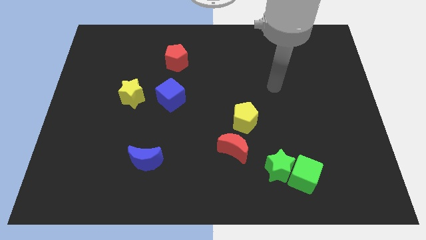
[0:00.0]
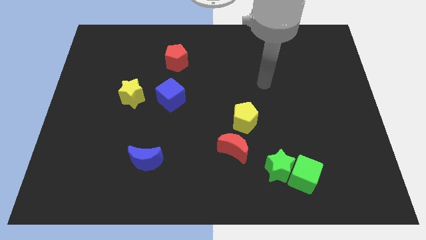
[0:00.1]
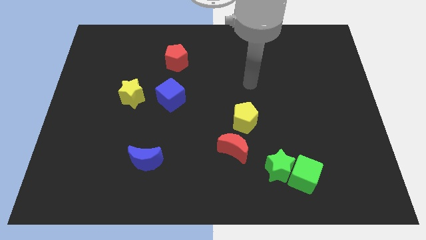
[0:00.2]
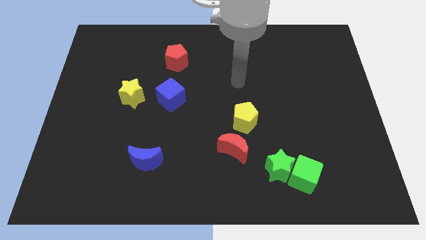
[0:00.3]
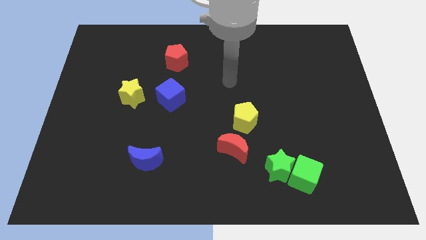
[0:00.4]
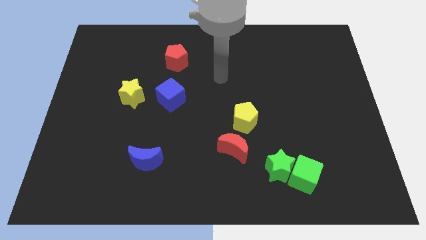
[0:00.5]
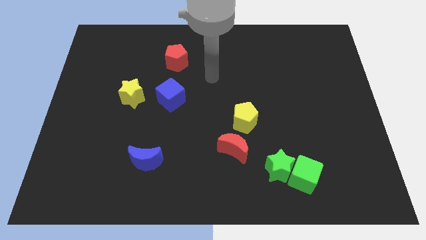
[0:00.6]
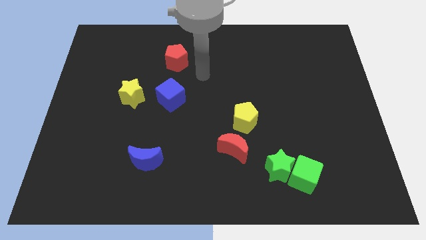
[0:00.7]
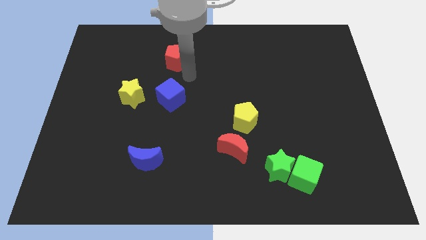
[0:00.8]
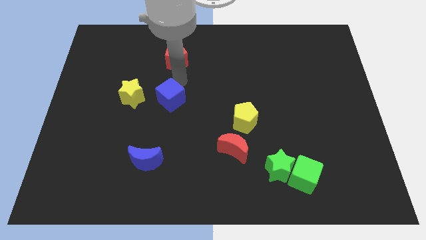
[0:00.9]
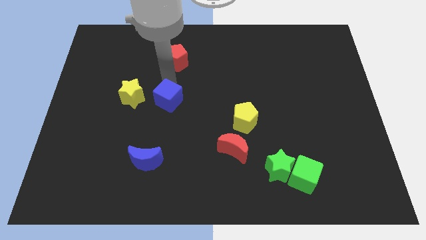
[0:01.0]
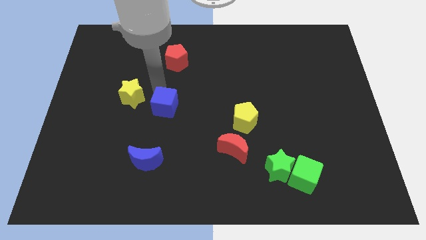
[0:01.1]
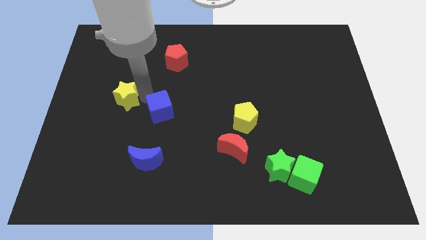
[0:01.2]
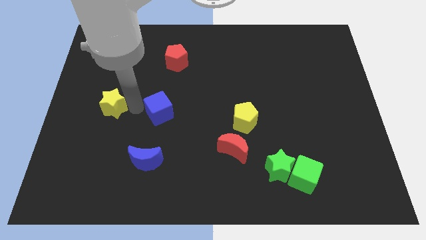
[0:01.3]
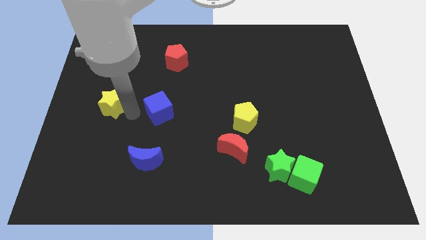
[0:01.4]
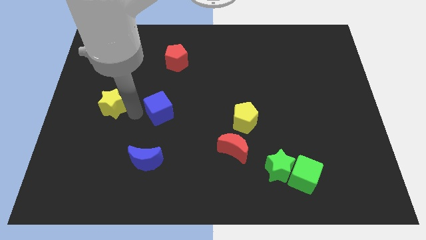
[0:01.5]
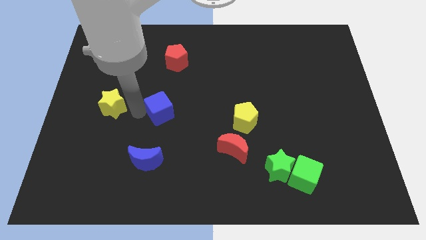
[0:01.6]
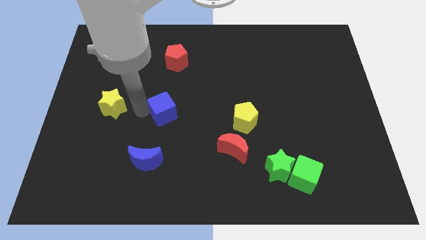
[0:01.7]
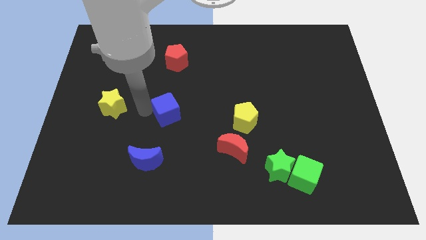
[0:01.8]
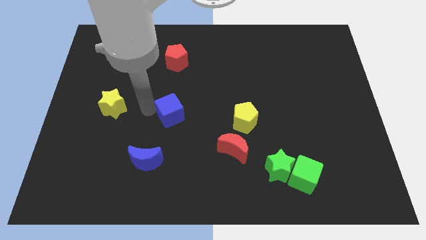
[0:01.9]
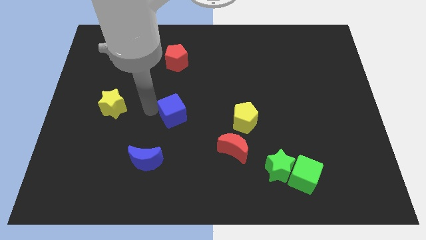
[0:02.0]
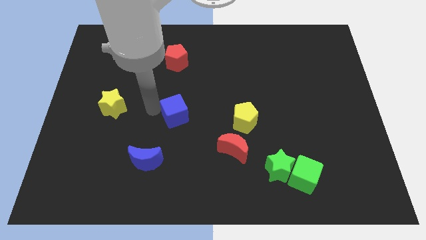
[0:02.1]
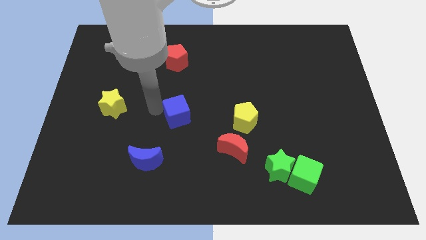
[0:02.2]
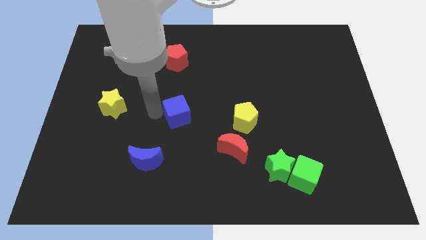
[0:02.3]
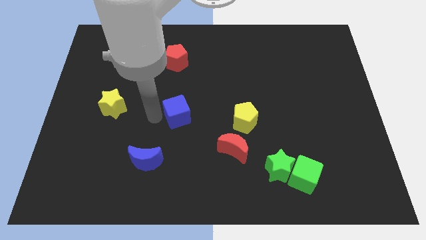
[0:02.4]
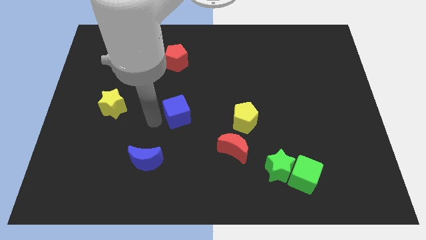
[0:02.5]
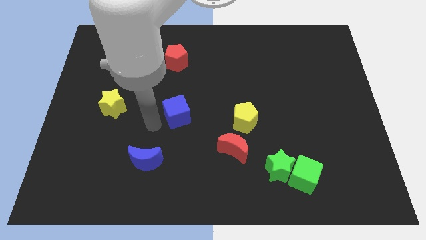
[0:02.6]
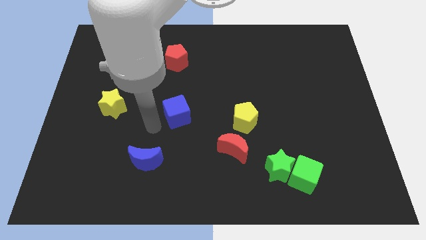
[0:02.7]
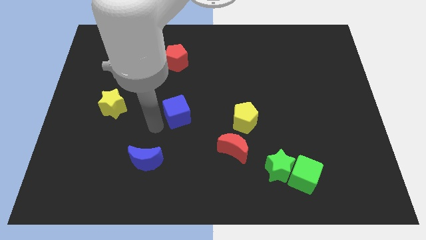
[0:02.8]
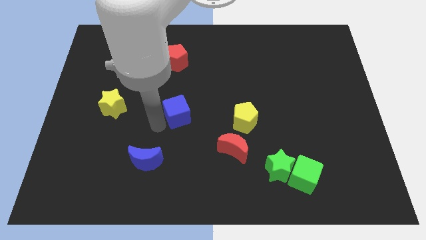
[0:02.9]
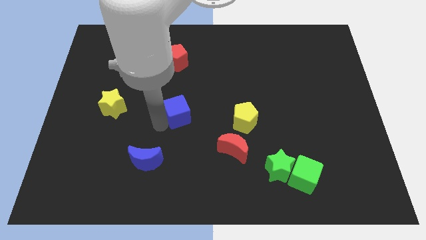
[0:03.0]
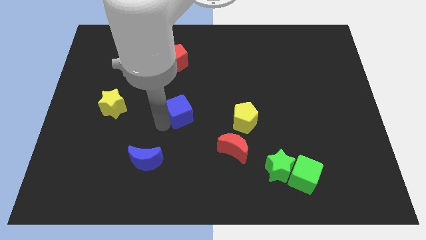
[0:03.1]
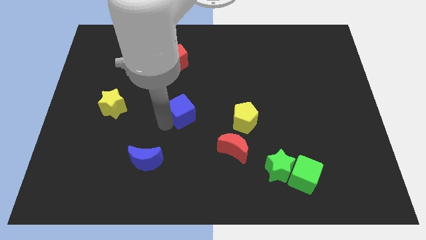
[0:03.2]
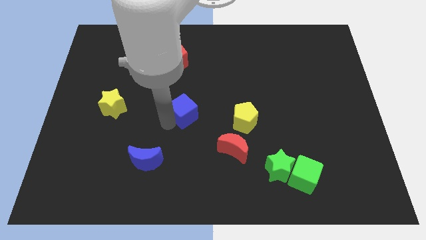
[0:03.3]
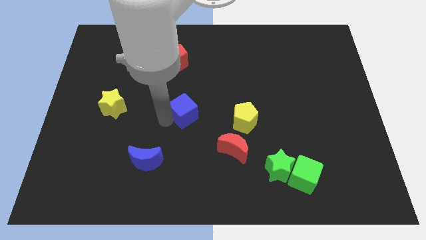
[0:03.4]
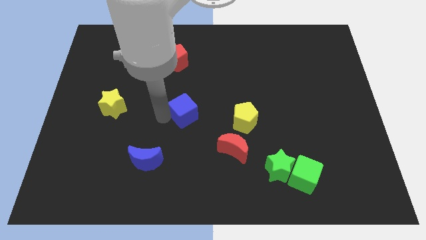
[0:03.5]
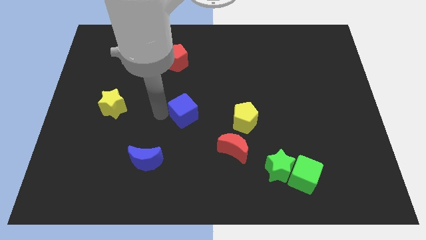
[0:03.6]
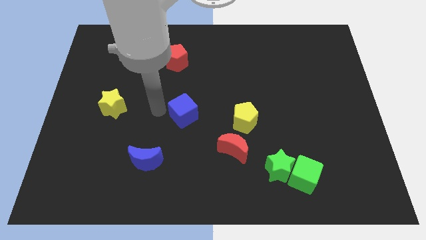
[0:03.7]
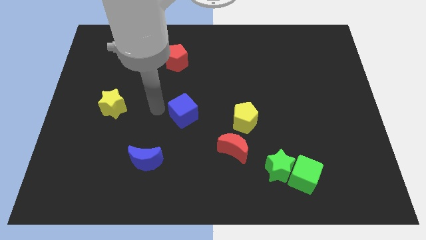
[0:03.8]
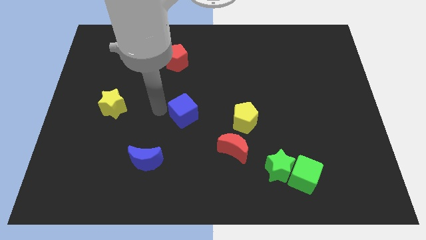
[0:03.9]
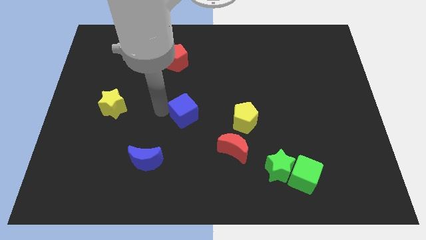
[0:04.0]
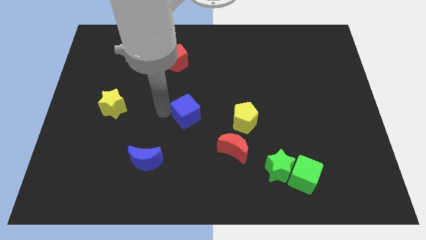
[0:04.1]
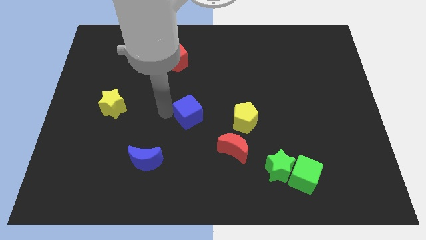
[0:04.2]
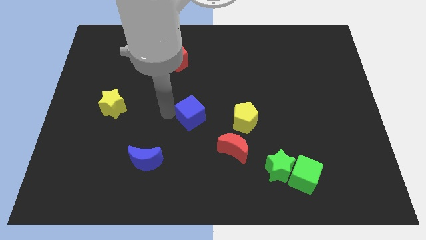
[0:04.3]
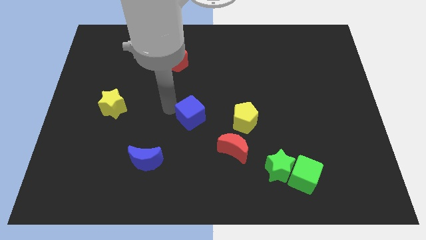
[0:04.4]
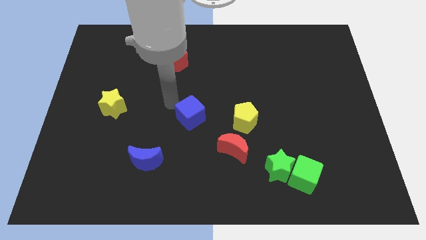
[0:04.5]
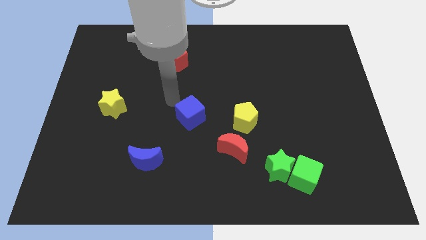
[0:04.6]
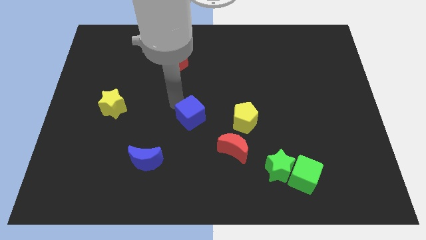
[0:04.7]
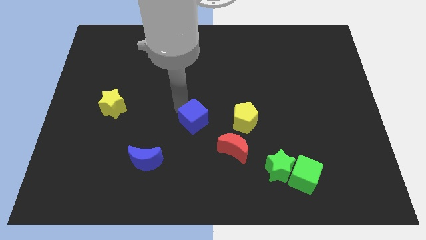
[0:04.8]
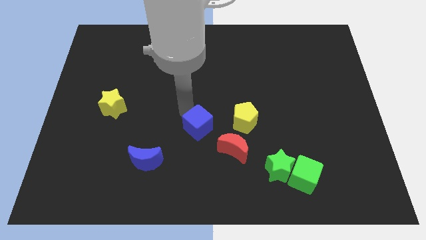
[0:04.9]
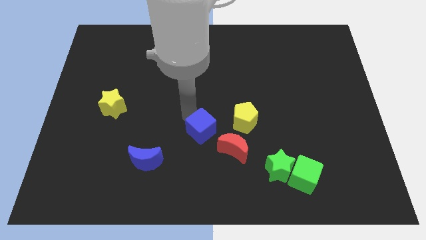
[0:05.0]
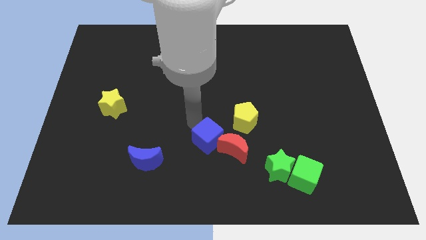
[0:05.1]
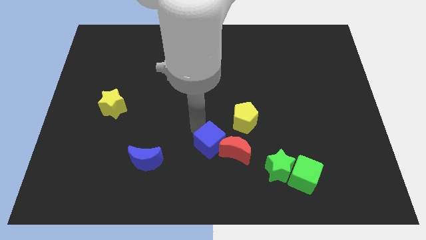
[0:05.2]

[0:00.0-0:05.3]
move the blue cube to the red moon

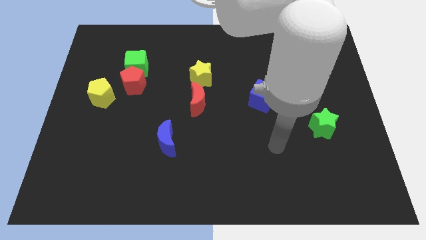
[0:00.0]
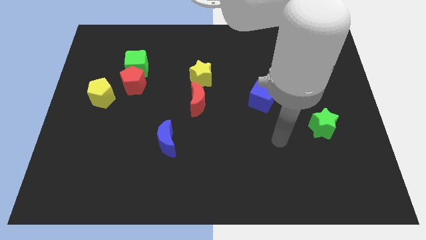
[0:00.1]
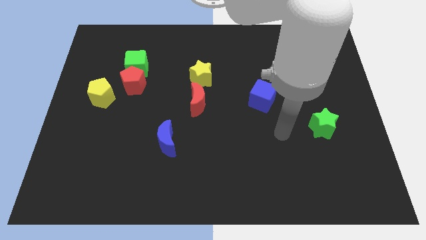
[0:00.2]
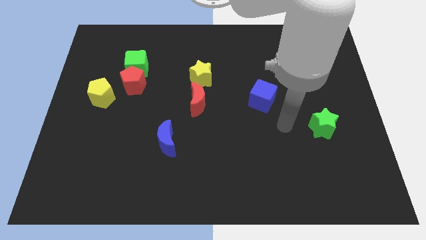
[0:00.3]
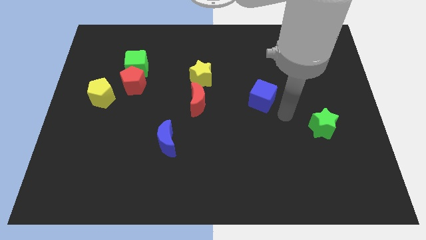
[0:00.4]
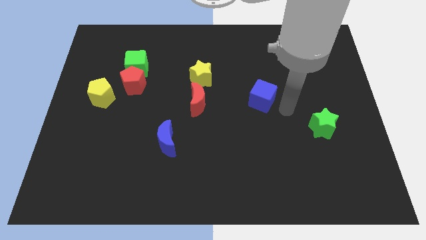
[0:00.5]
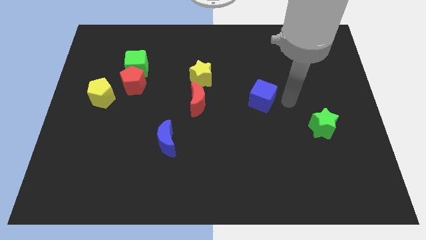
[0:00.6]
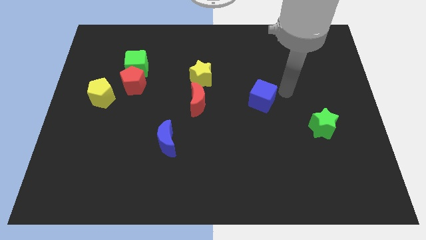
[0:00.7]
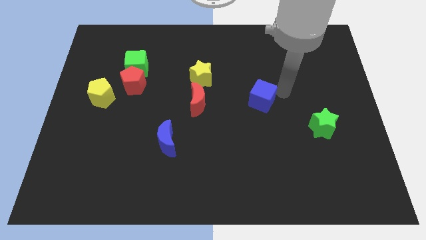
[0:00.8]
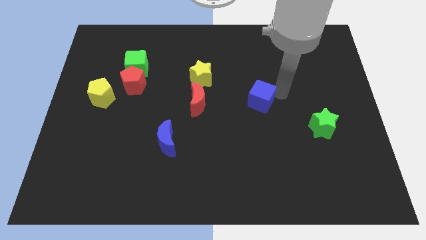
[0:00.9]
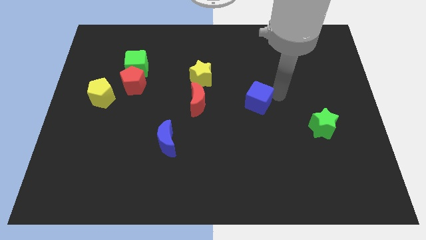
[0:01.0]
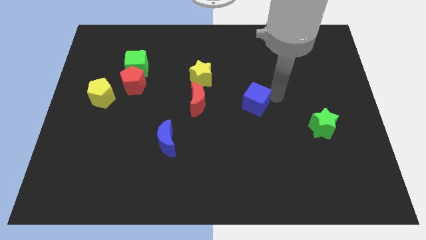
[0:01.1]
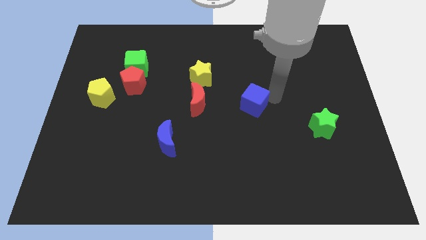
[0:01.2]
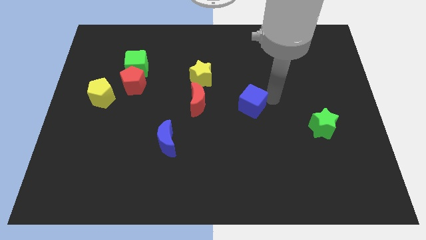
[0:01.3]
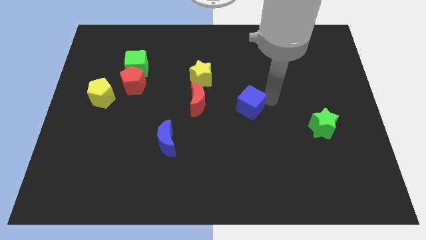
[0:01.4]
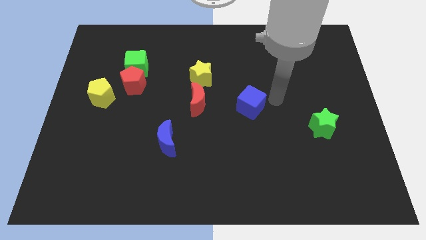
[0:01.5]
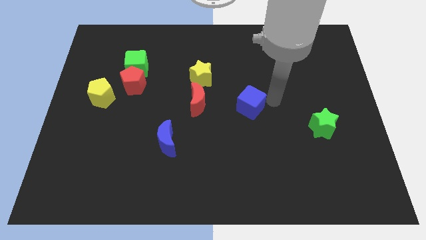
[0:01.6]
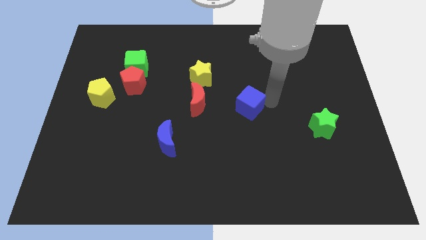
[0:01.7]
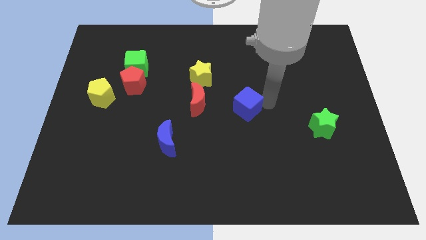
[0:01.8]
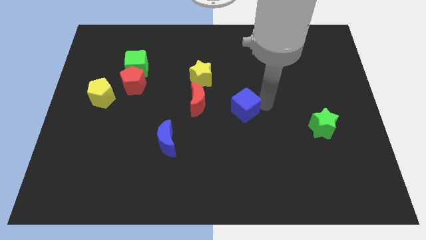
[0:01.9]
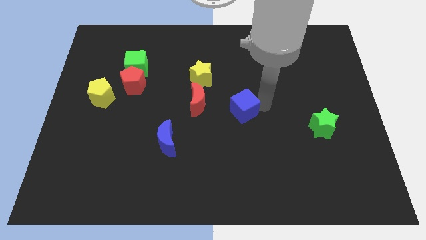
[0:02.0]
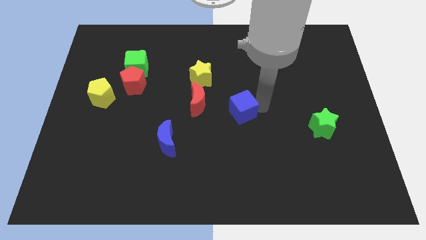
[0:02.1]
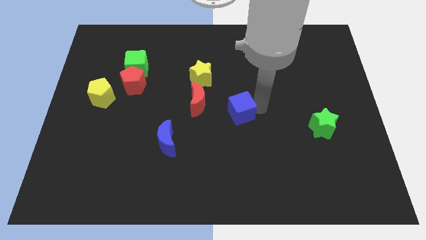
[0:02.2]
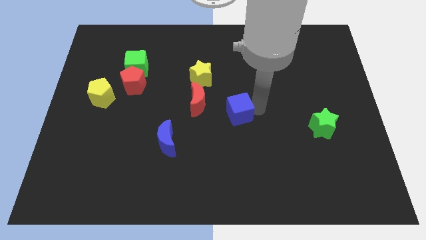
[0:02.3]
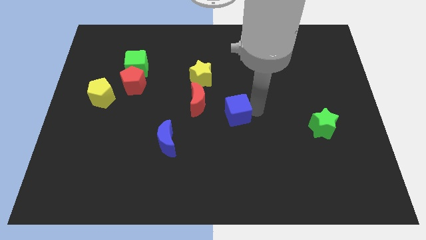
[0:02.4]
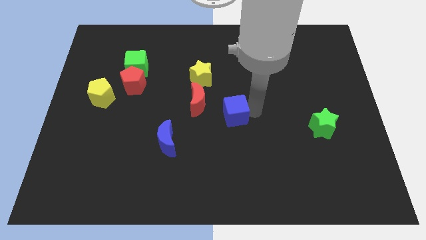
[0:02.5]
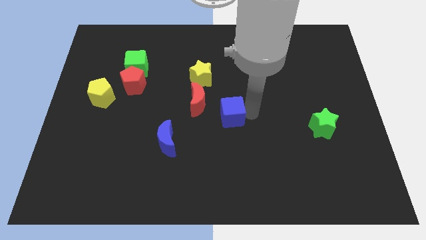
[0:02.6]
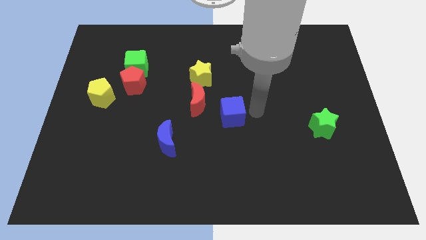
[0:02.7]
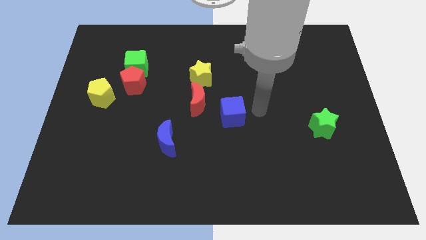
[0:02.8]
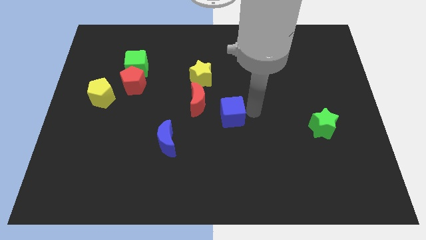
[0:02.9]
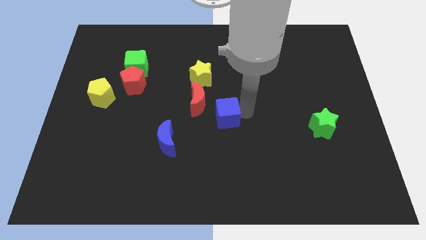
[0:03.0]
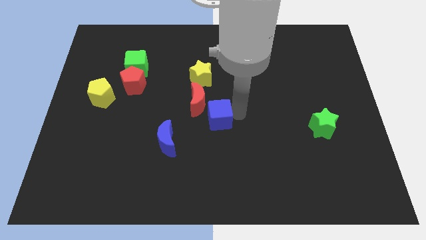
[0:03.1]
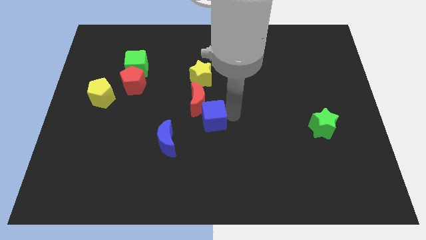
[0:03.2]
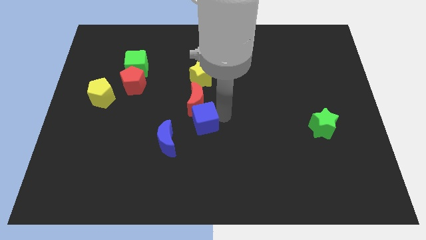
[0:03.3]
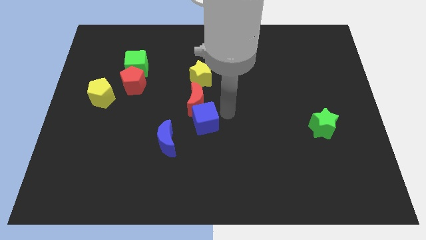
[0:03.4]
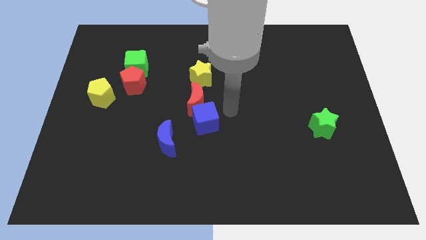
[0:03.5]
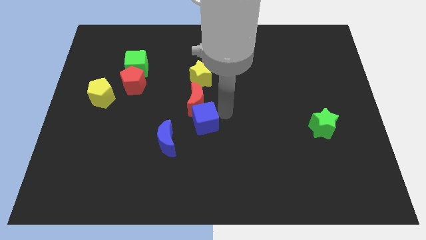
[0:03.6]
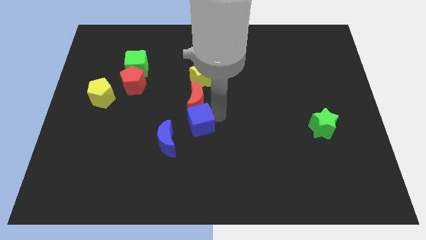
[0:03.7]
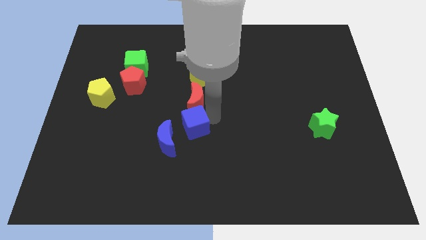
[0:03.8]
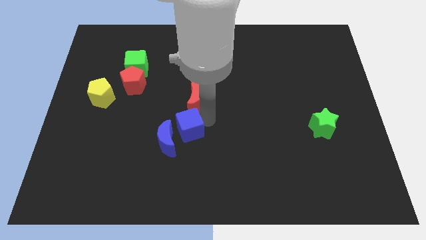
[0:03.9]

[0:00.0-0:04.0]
slide the blue cube towards the blue moon
